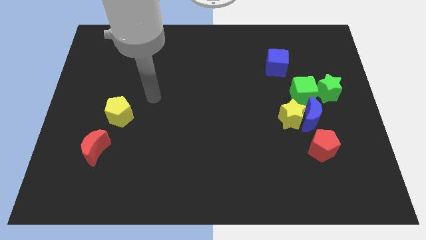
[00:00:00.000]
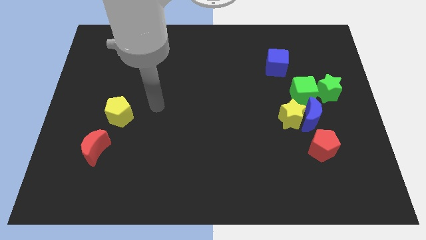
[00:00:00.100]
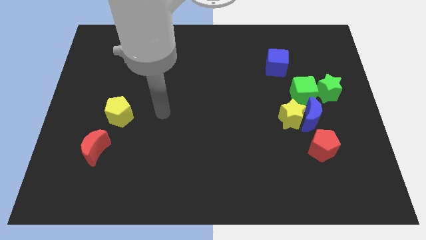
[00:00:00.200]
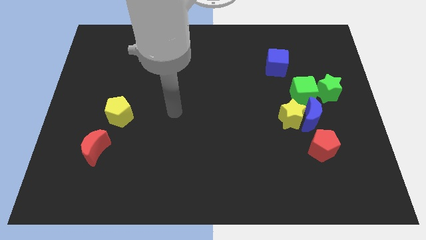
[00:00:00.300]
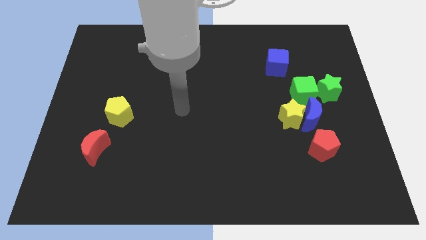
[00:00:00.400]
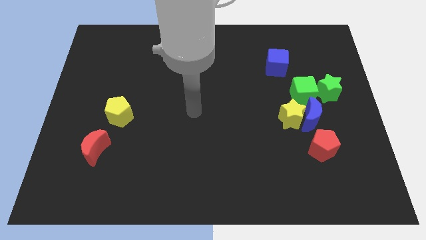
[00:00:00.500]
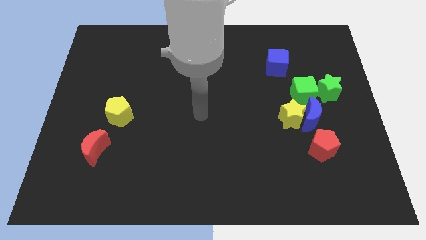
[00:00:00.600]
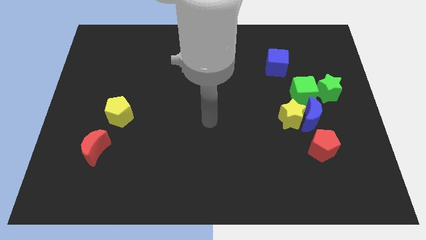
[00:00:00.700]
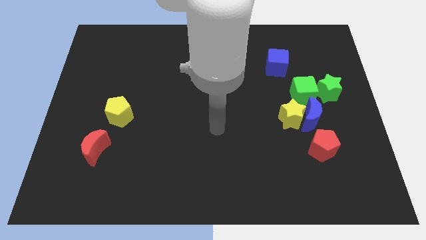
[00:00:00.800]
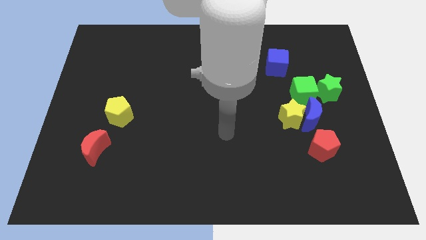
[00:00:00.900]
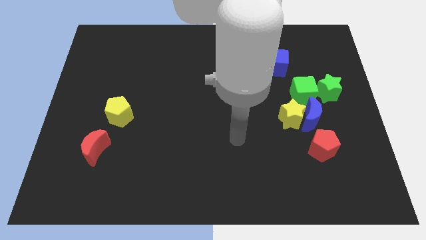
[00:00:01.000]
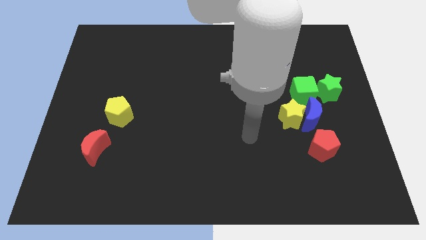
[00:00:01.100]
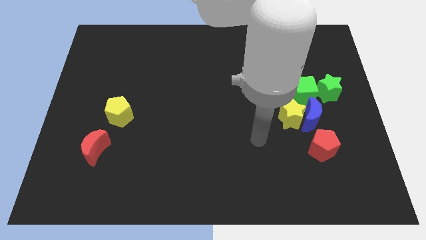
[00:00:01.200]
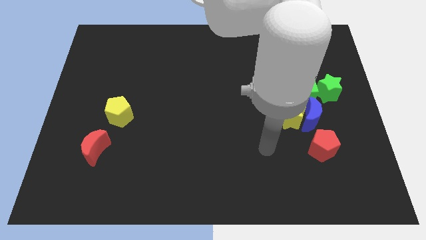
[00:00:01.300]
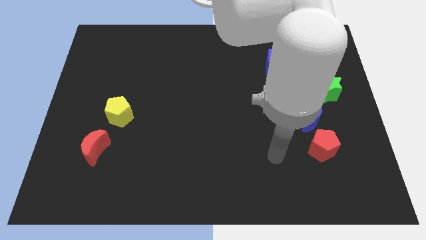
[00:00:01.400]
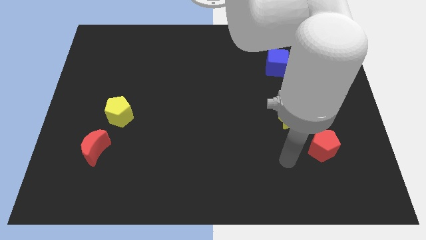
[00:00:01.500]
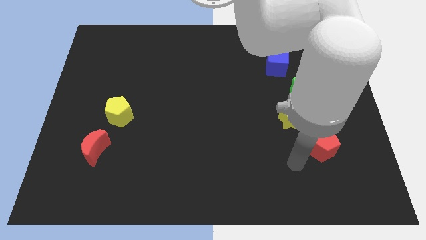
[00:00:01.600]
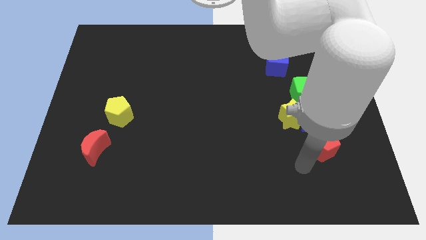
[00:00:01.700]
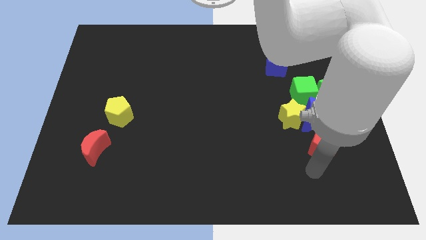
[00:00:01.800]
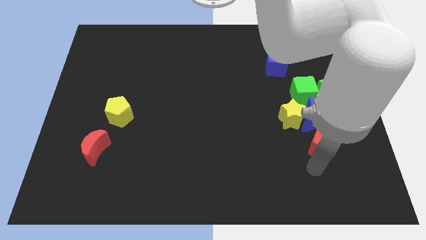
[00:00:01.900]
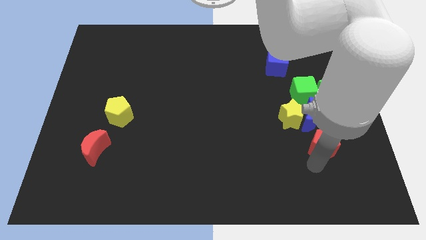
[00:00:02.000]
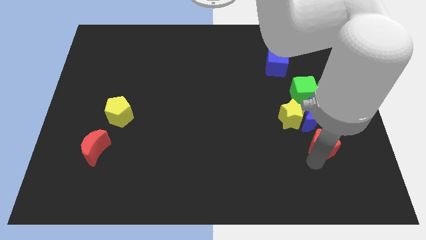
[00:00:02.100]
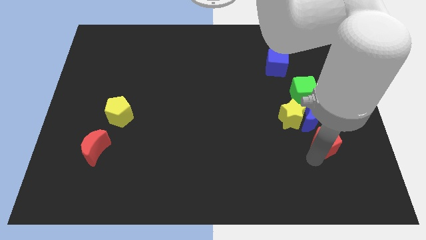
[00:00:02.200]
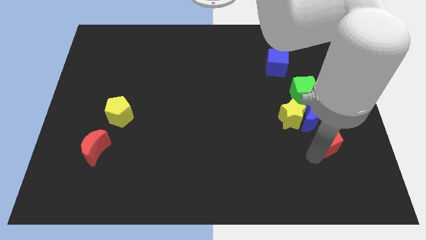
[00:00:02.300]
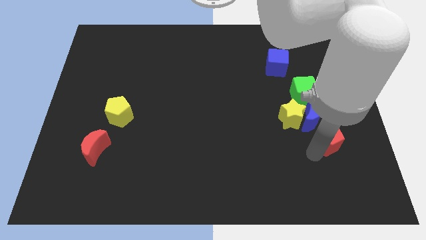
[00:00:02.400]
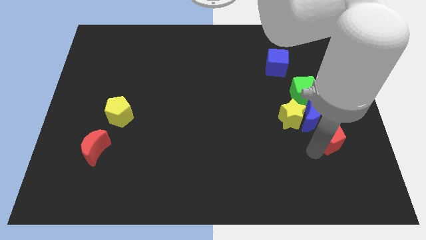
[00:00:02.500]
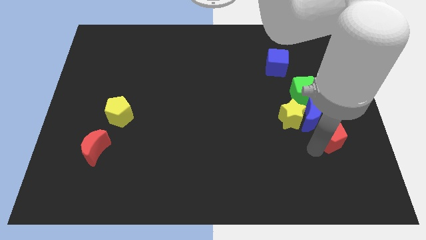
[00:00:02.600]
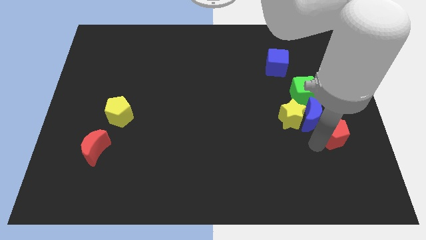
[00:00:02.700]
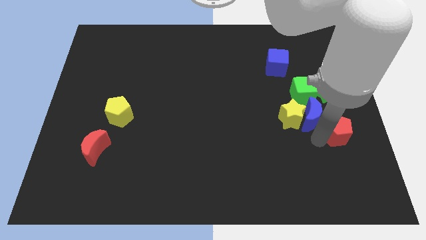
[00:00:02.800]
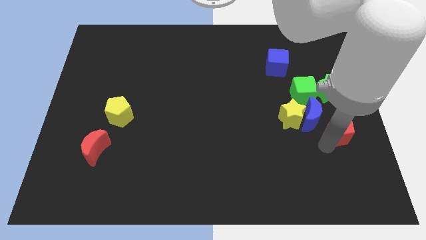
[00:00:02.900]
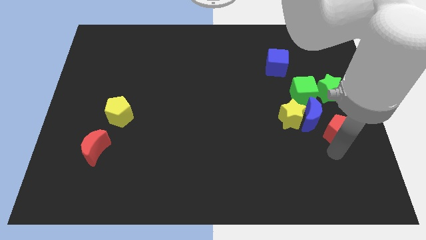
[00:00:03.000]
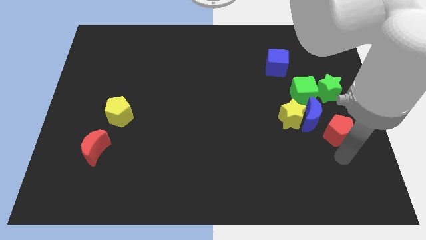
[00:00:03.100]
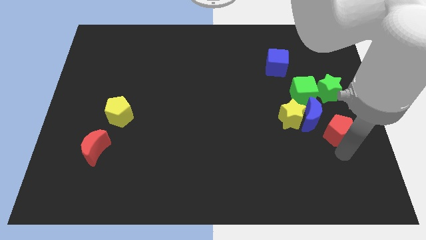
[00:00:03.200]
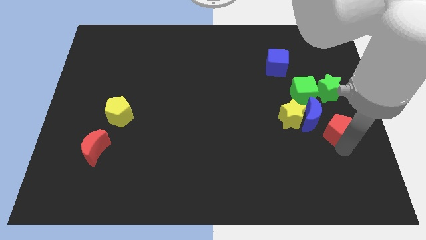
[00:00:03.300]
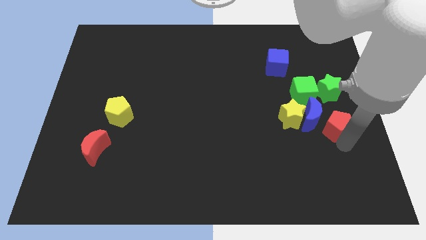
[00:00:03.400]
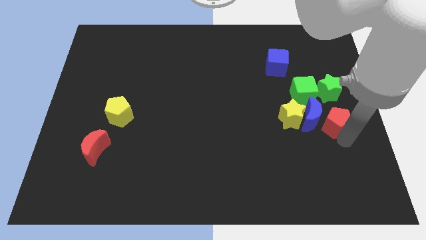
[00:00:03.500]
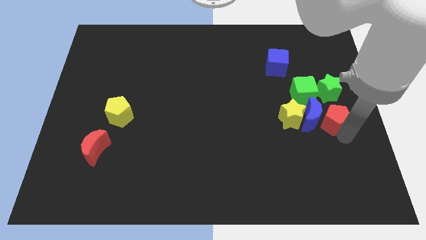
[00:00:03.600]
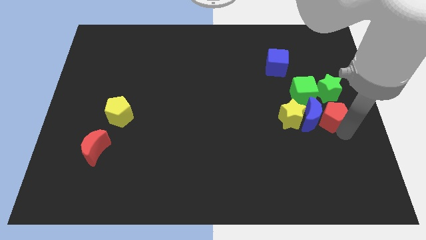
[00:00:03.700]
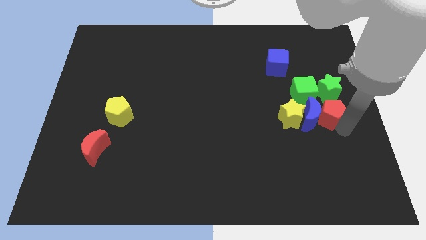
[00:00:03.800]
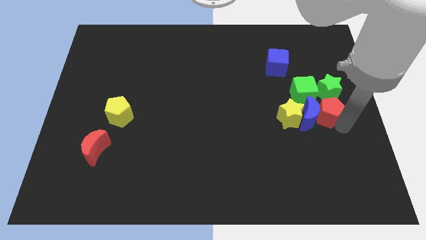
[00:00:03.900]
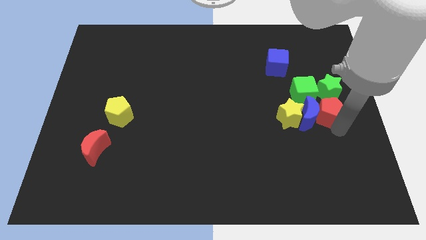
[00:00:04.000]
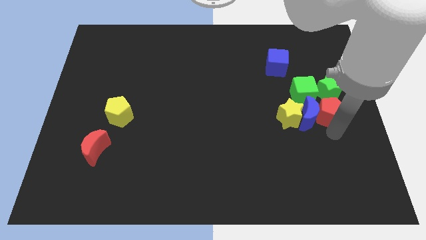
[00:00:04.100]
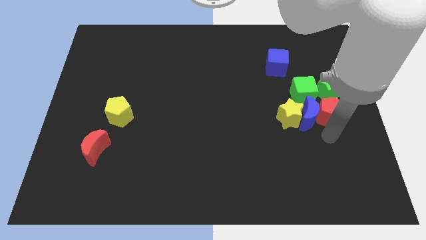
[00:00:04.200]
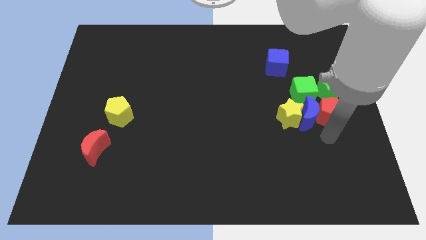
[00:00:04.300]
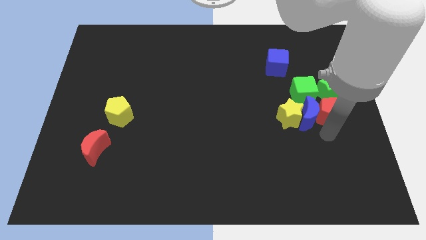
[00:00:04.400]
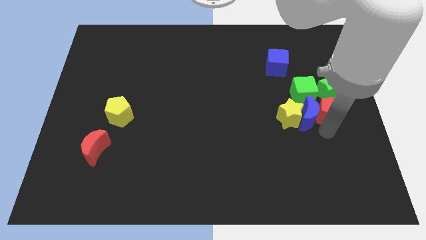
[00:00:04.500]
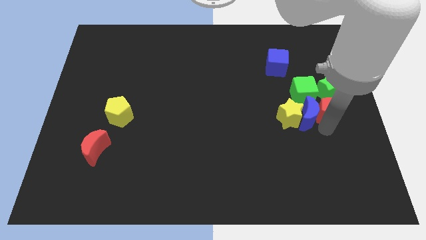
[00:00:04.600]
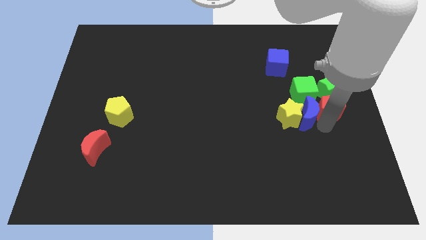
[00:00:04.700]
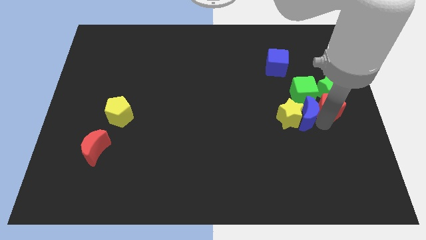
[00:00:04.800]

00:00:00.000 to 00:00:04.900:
push the red pentagon to the green star

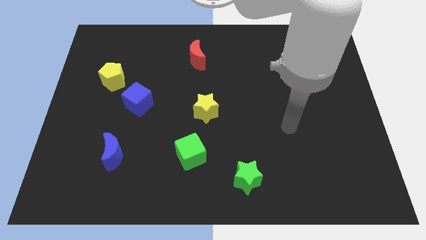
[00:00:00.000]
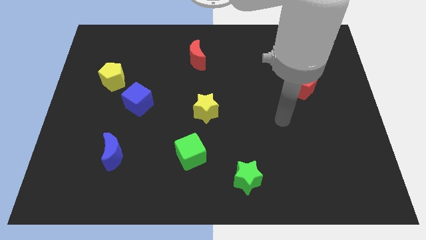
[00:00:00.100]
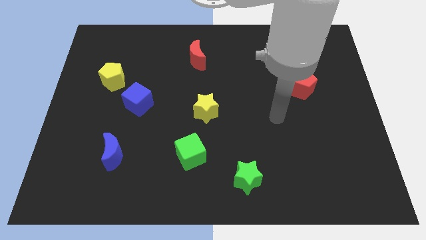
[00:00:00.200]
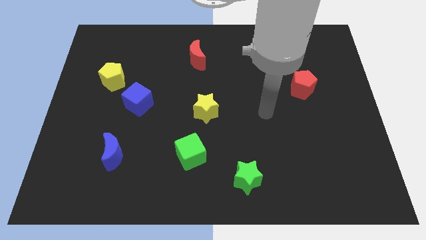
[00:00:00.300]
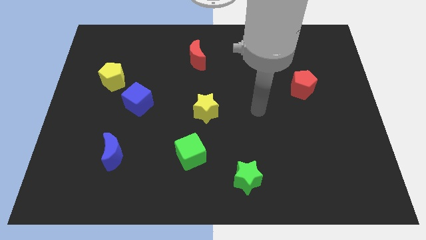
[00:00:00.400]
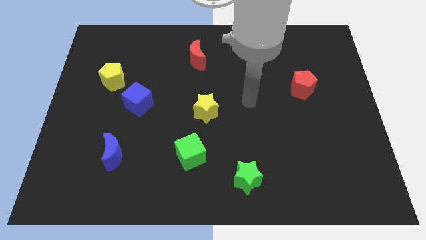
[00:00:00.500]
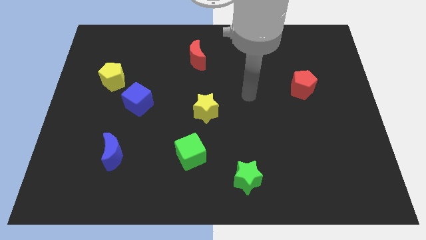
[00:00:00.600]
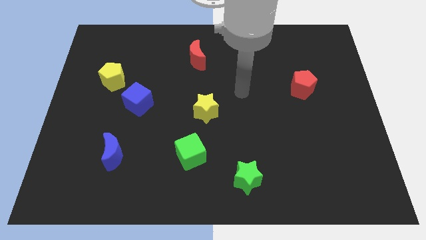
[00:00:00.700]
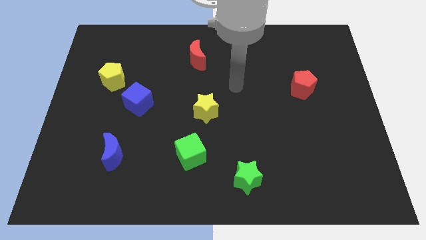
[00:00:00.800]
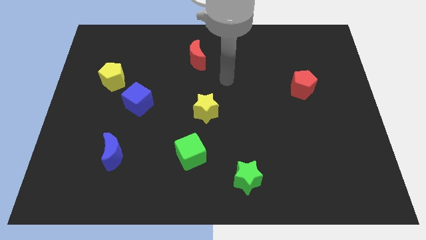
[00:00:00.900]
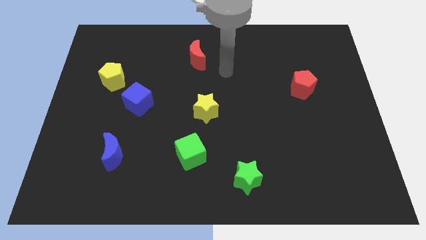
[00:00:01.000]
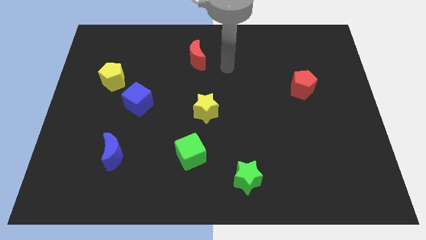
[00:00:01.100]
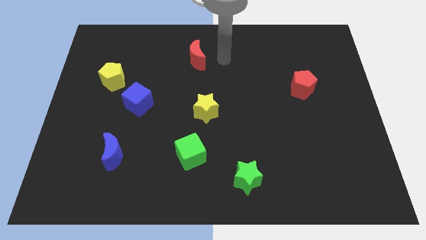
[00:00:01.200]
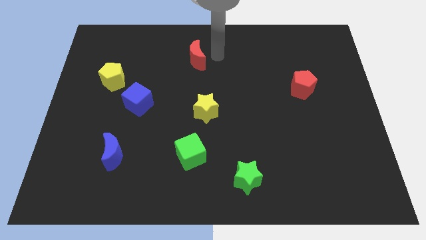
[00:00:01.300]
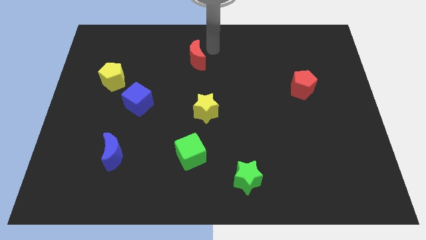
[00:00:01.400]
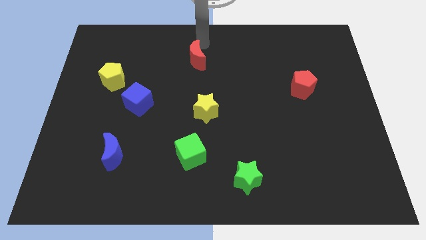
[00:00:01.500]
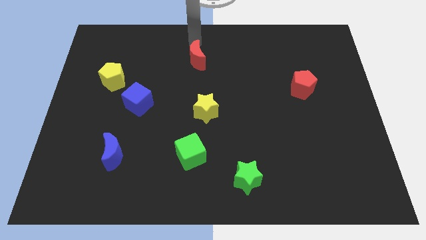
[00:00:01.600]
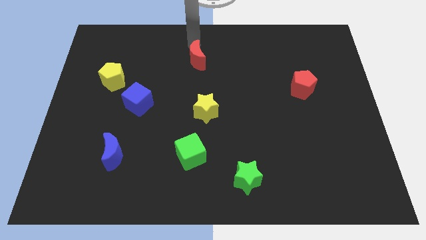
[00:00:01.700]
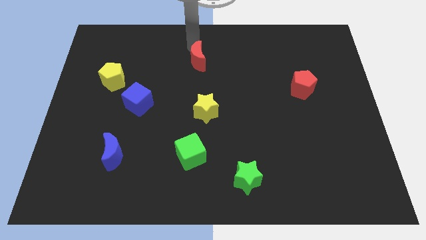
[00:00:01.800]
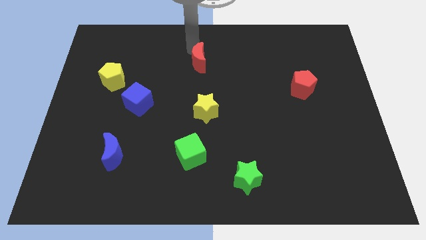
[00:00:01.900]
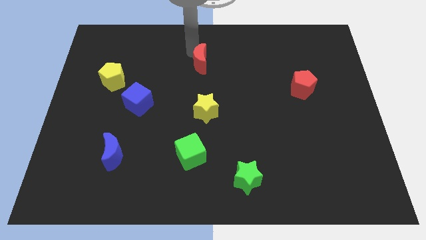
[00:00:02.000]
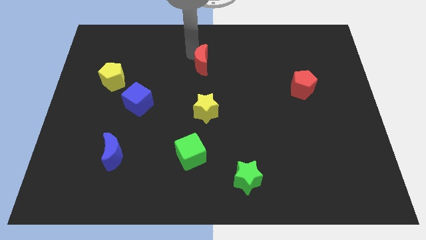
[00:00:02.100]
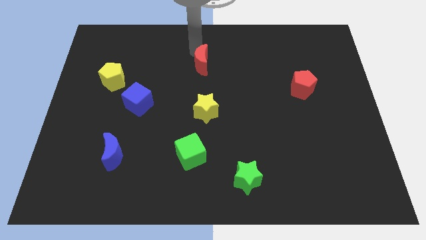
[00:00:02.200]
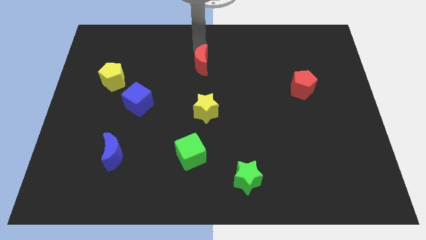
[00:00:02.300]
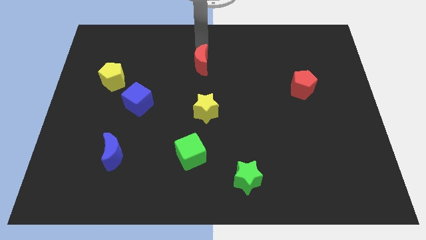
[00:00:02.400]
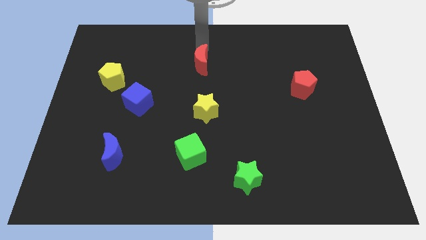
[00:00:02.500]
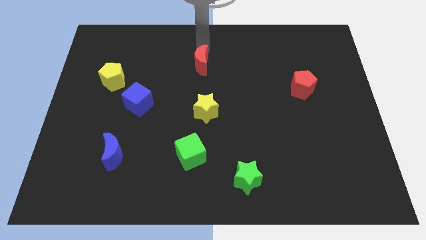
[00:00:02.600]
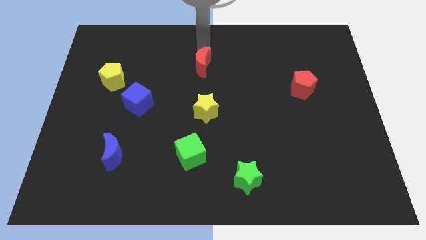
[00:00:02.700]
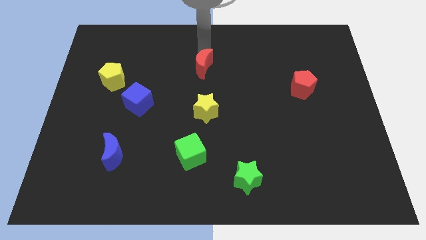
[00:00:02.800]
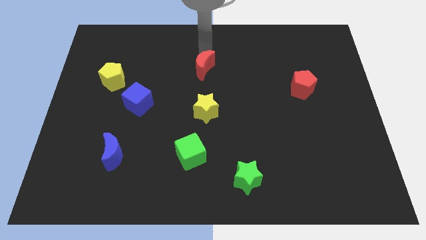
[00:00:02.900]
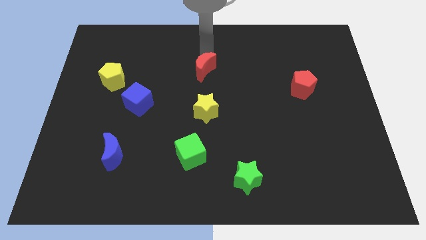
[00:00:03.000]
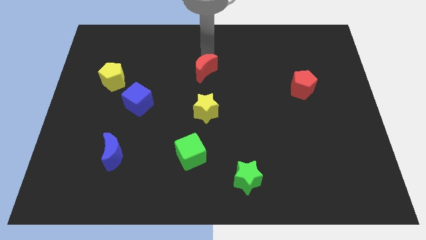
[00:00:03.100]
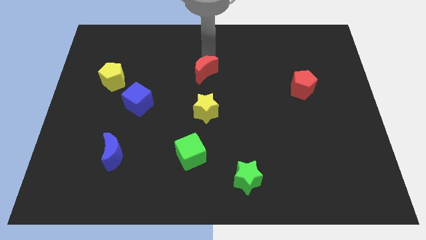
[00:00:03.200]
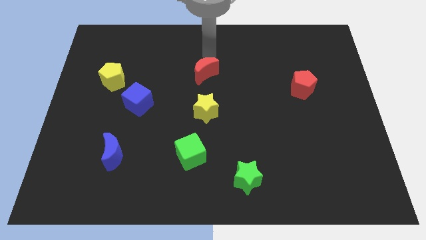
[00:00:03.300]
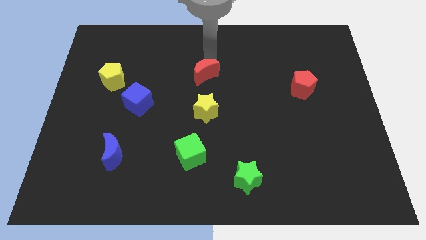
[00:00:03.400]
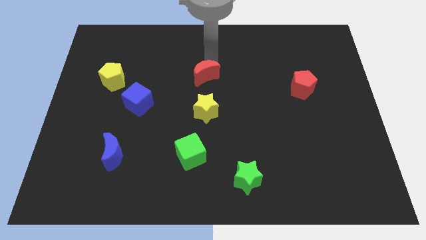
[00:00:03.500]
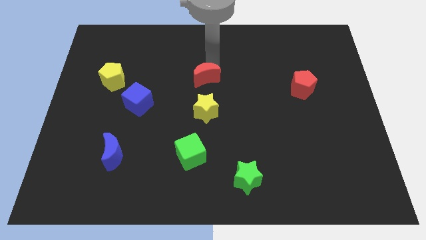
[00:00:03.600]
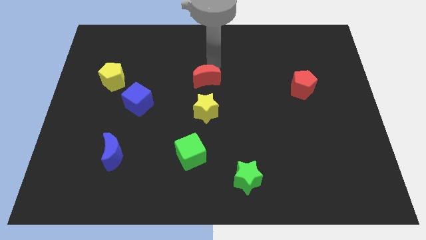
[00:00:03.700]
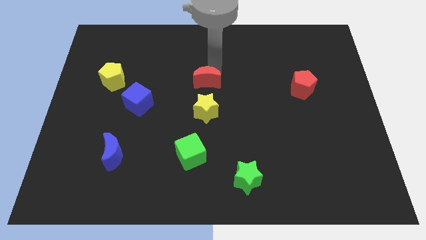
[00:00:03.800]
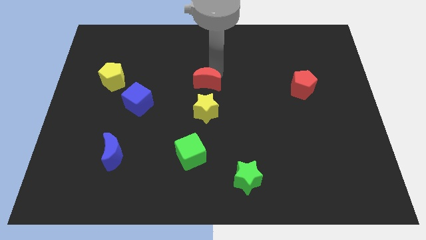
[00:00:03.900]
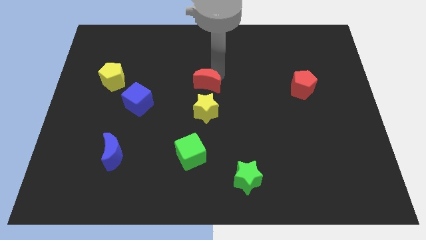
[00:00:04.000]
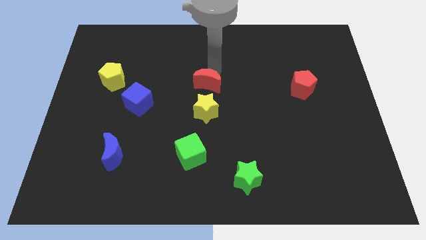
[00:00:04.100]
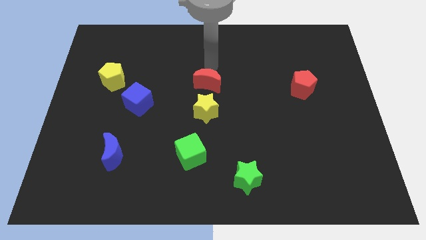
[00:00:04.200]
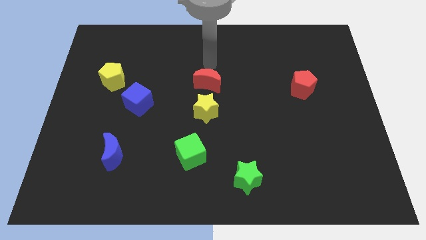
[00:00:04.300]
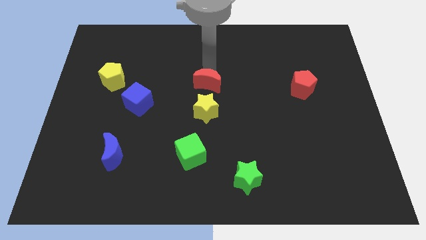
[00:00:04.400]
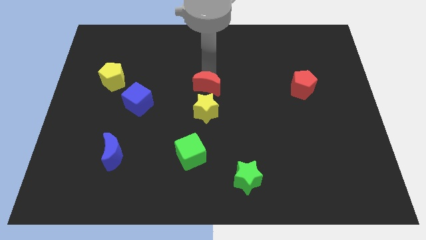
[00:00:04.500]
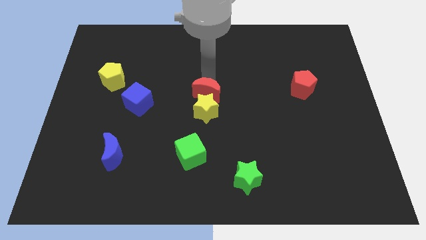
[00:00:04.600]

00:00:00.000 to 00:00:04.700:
put the red moon to the yellow star
